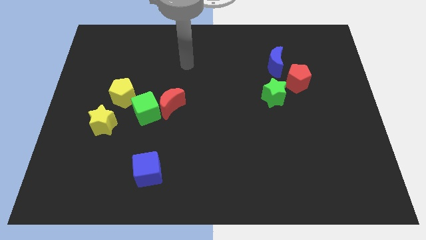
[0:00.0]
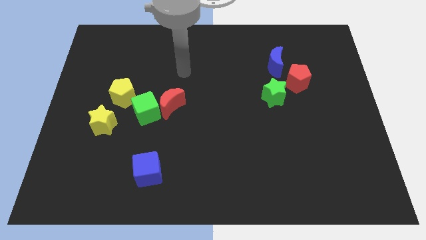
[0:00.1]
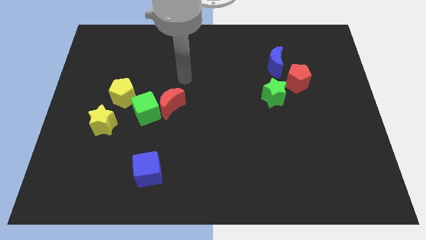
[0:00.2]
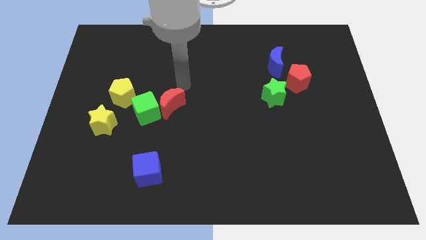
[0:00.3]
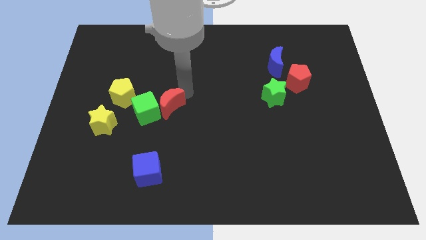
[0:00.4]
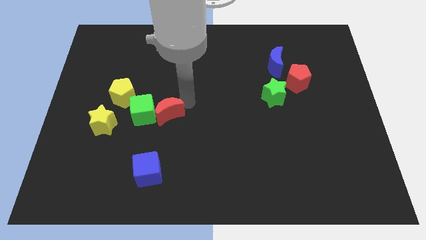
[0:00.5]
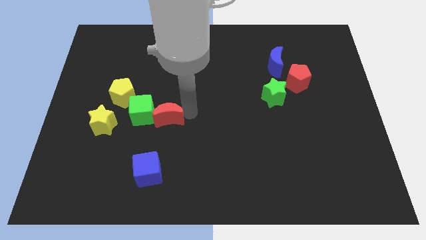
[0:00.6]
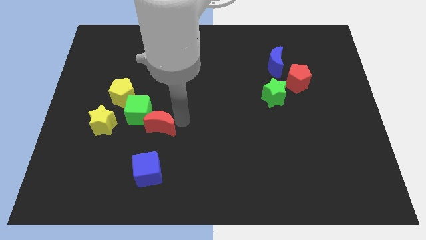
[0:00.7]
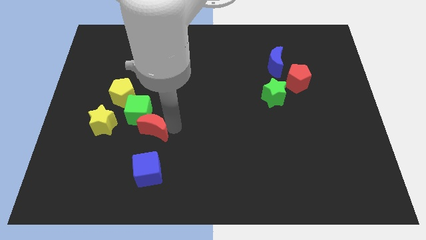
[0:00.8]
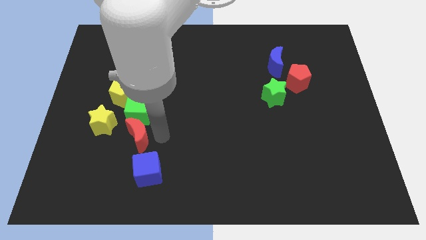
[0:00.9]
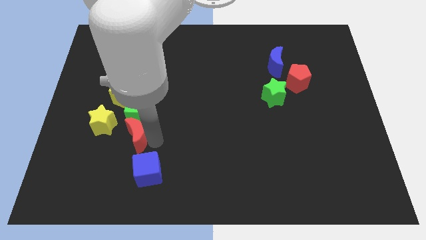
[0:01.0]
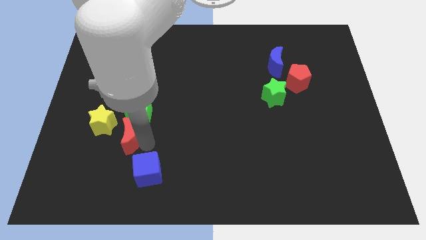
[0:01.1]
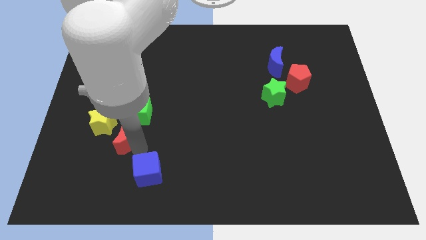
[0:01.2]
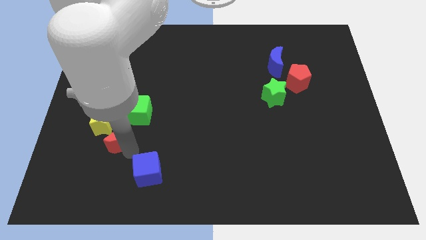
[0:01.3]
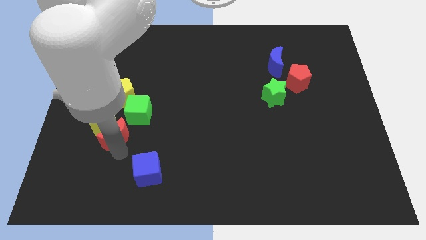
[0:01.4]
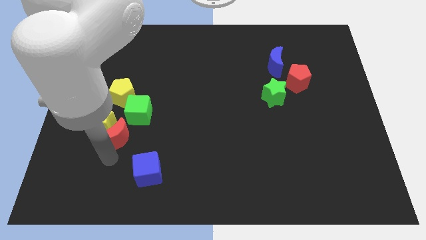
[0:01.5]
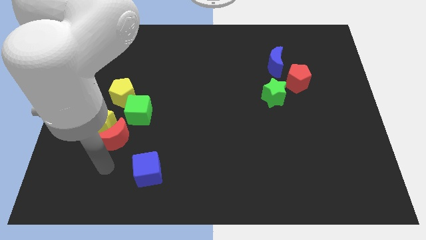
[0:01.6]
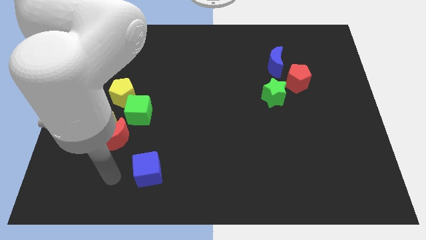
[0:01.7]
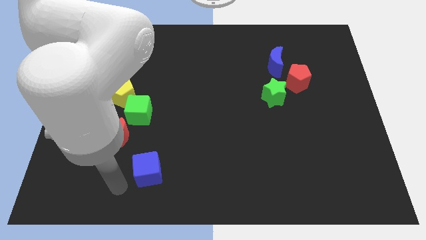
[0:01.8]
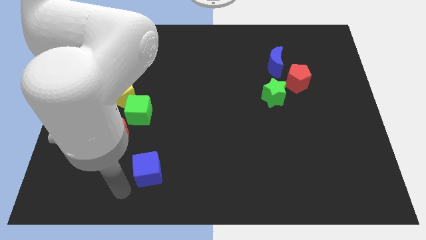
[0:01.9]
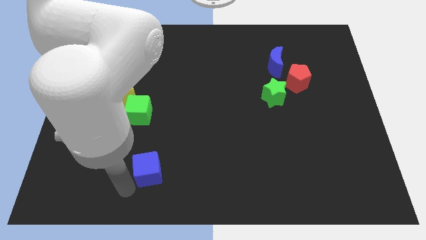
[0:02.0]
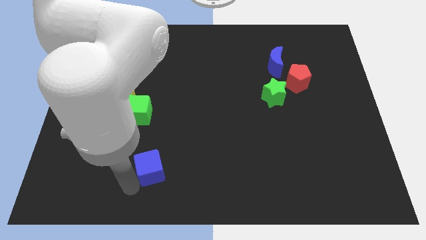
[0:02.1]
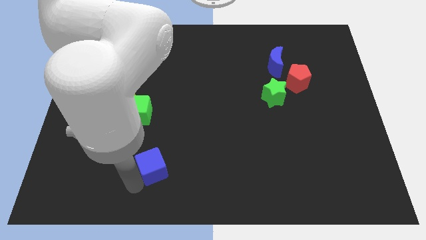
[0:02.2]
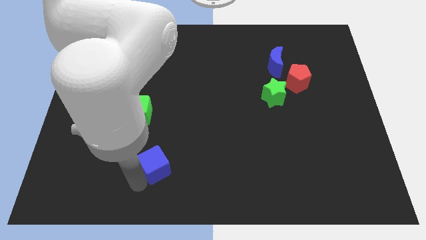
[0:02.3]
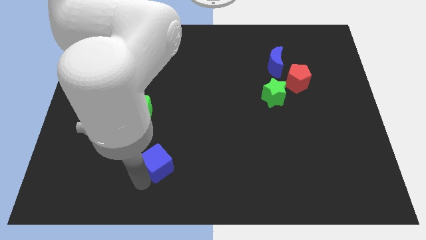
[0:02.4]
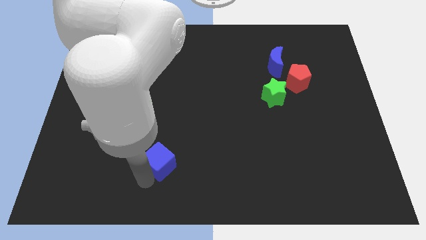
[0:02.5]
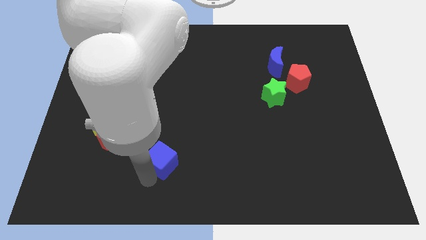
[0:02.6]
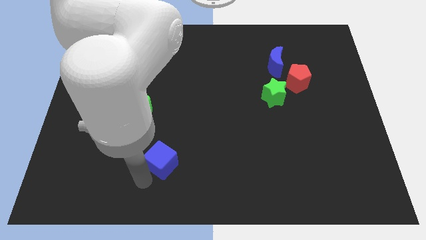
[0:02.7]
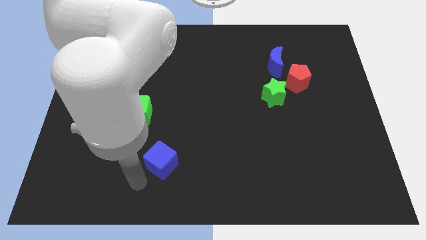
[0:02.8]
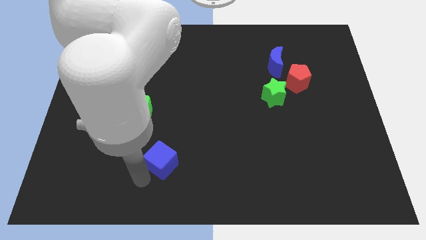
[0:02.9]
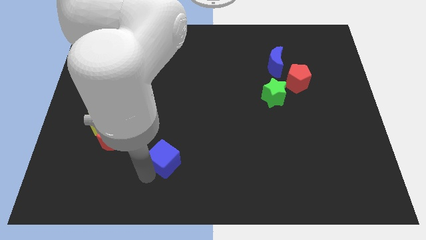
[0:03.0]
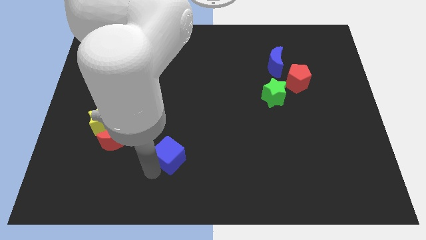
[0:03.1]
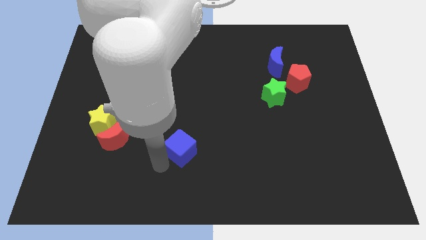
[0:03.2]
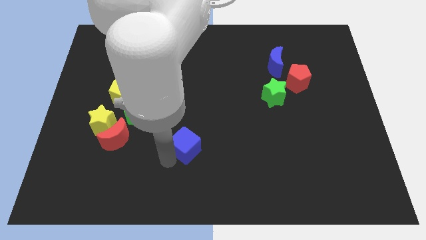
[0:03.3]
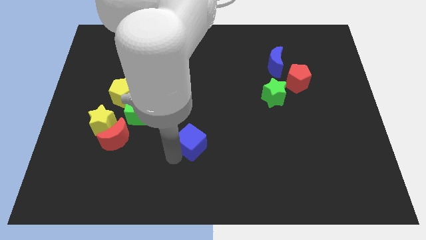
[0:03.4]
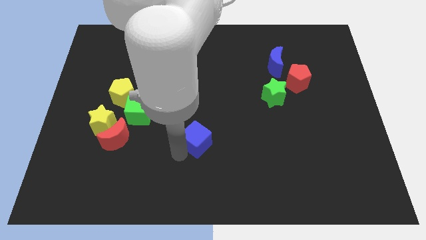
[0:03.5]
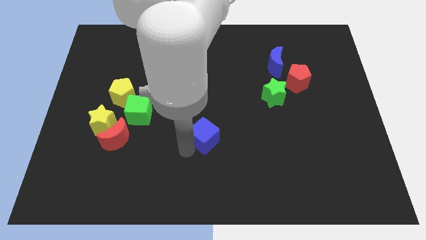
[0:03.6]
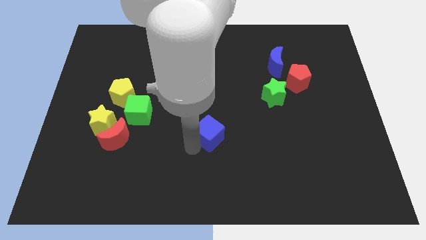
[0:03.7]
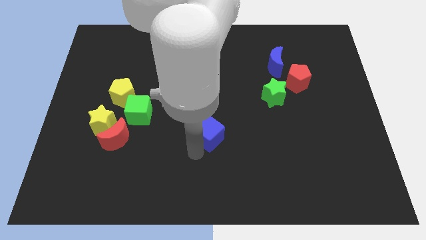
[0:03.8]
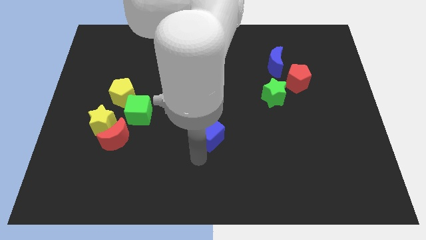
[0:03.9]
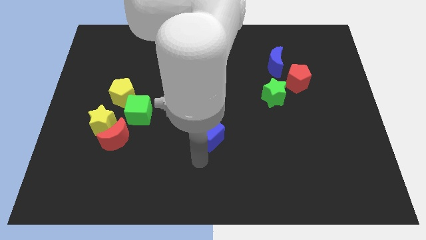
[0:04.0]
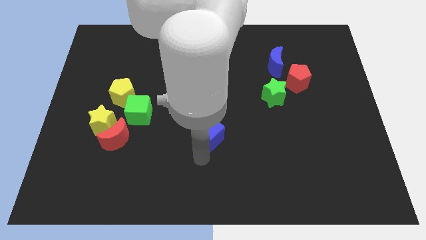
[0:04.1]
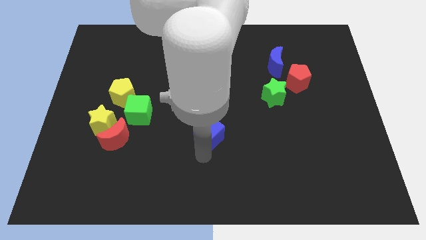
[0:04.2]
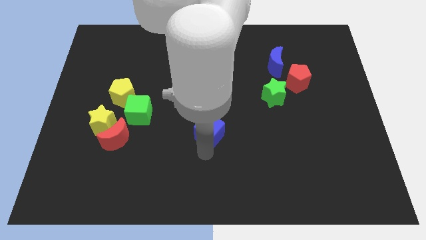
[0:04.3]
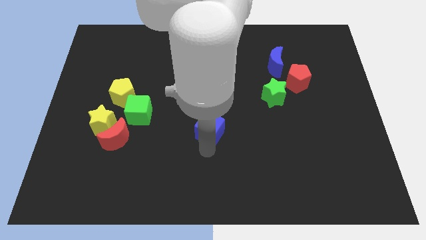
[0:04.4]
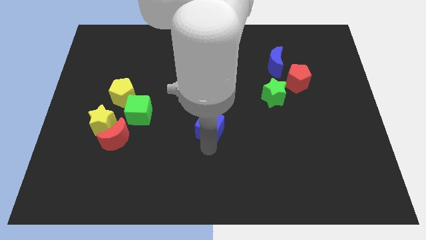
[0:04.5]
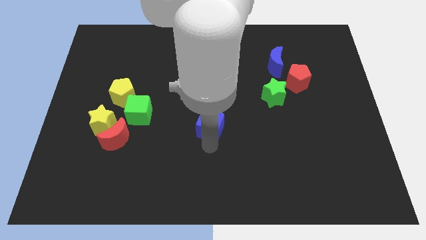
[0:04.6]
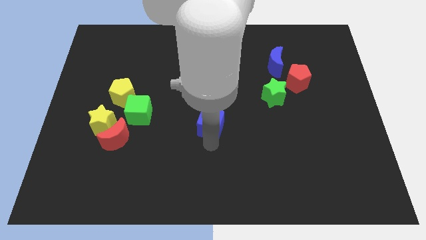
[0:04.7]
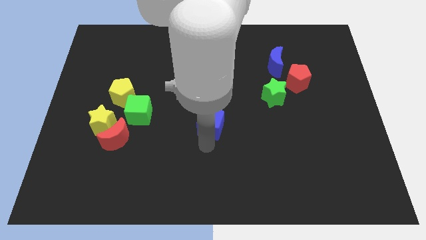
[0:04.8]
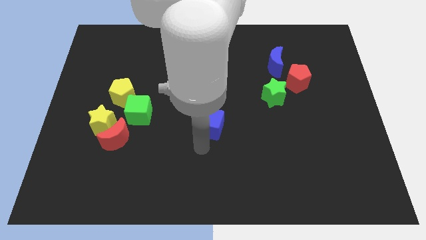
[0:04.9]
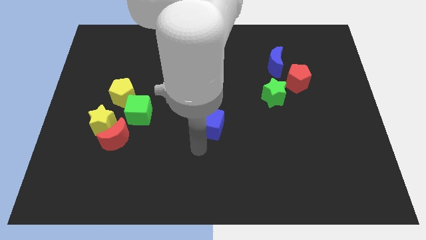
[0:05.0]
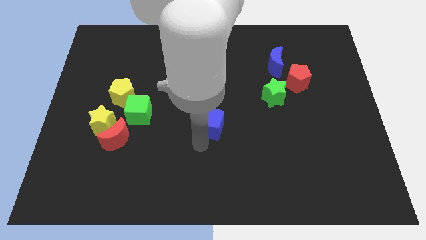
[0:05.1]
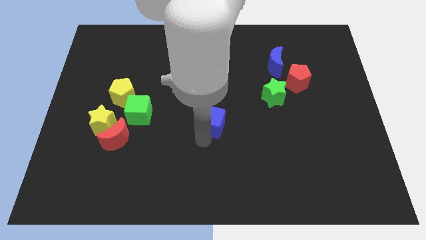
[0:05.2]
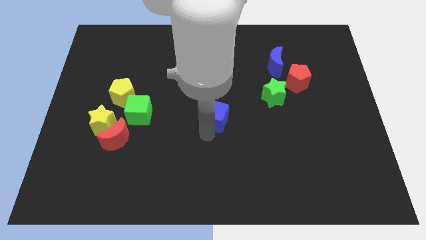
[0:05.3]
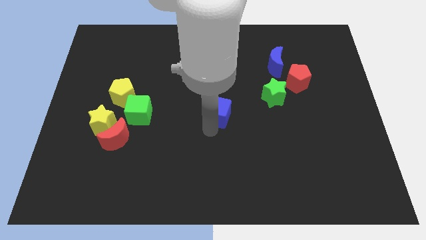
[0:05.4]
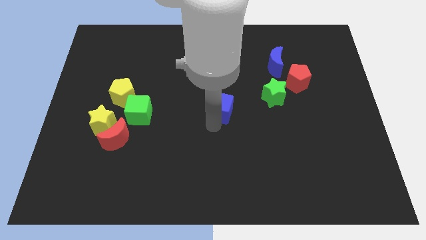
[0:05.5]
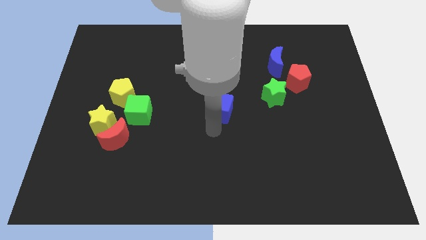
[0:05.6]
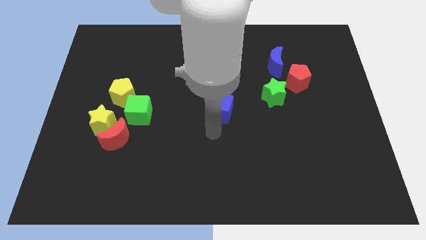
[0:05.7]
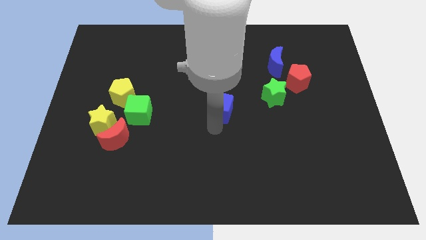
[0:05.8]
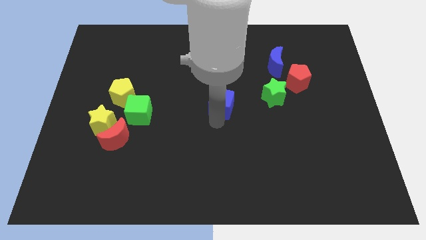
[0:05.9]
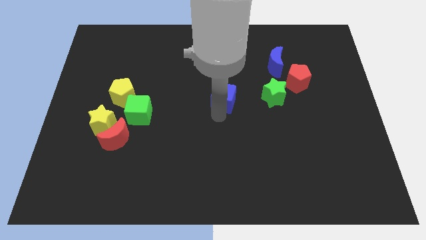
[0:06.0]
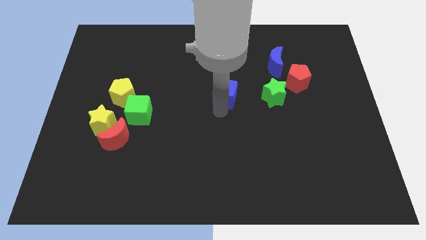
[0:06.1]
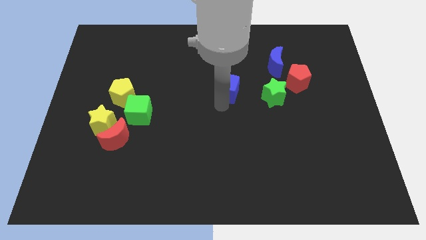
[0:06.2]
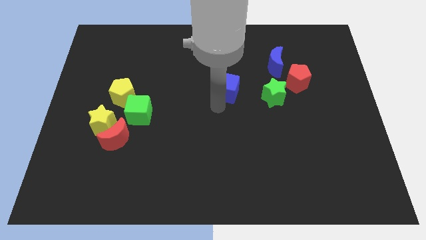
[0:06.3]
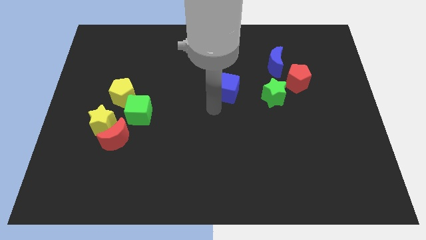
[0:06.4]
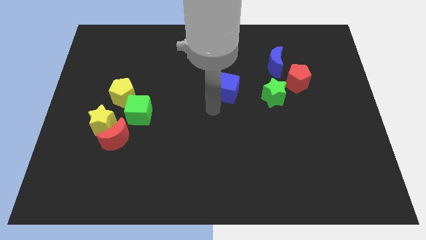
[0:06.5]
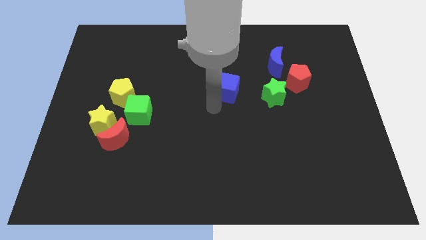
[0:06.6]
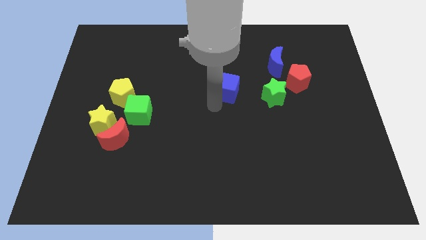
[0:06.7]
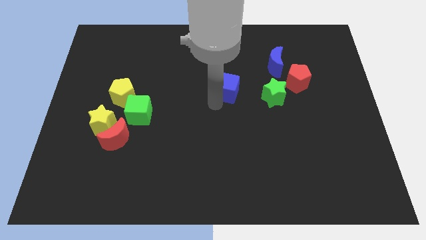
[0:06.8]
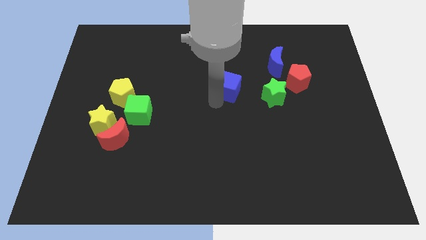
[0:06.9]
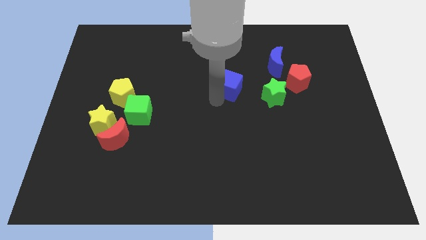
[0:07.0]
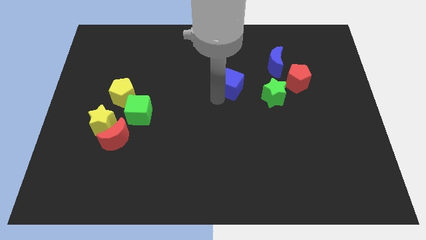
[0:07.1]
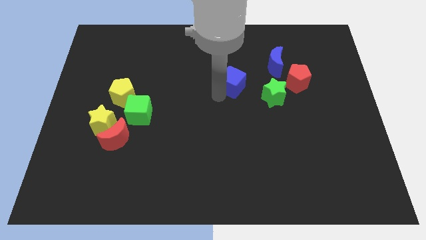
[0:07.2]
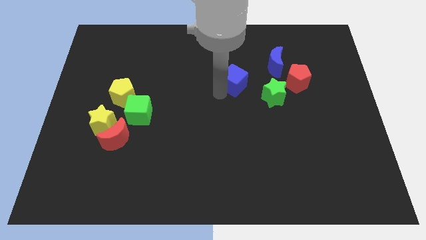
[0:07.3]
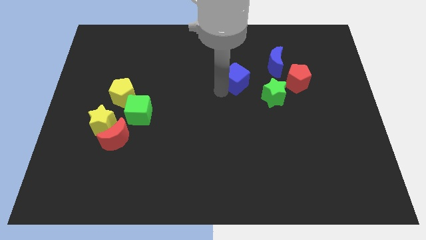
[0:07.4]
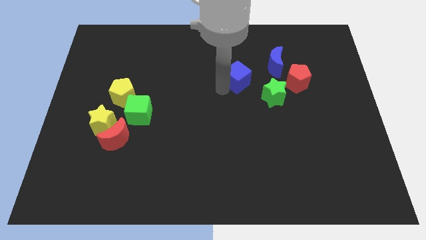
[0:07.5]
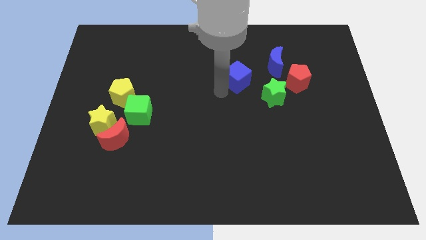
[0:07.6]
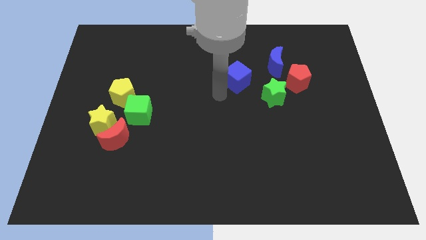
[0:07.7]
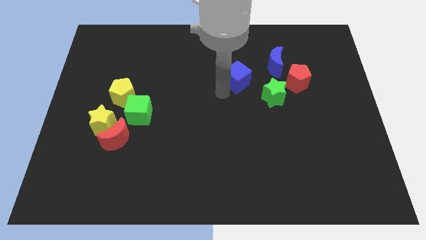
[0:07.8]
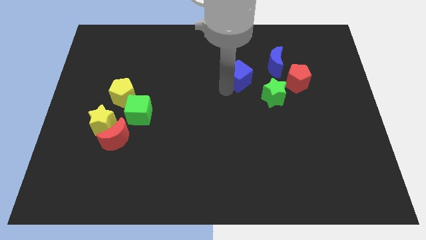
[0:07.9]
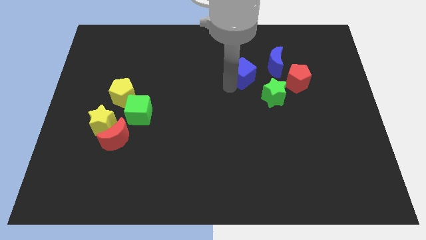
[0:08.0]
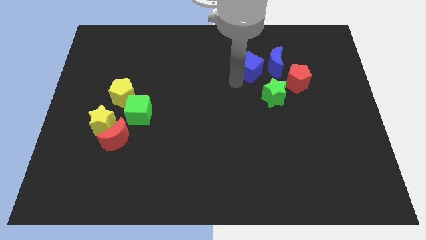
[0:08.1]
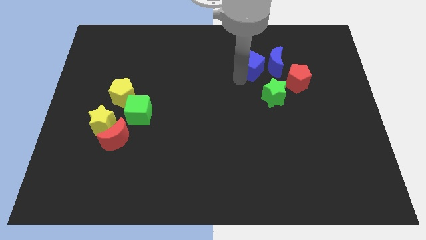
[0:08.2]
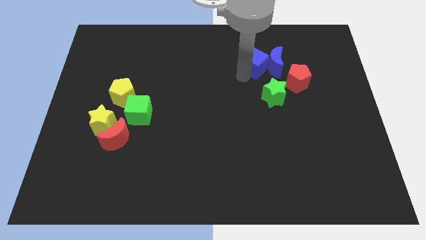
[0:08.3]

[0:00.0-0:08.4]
move the blue cube to the top side of the green star
